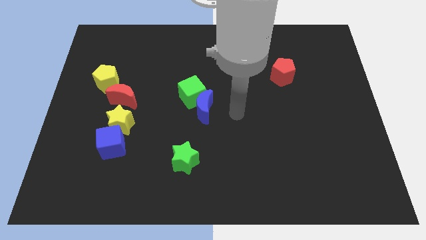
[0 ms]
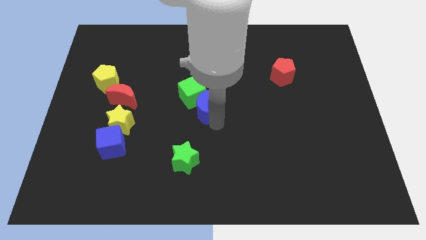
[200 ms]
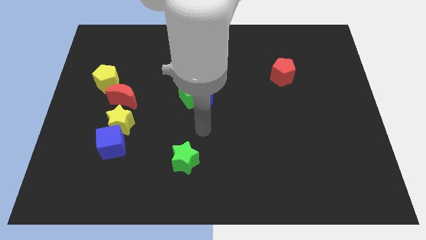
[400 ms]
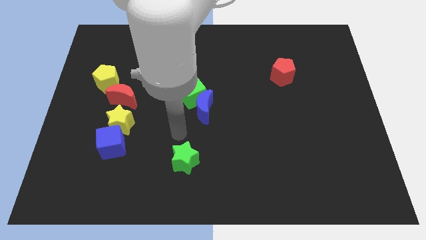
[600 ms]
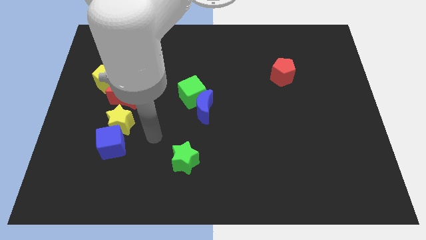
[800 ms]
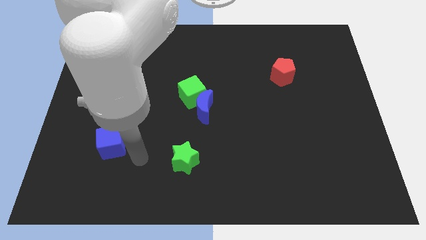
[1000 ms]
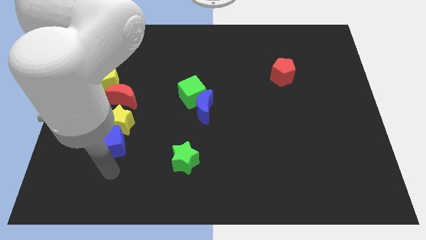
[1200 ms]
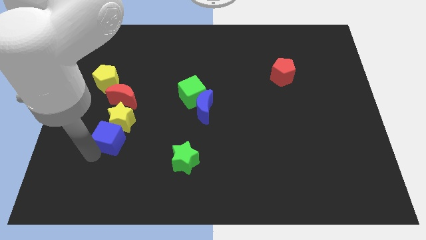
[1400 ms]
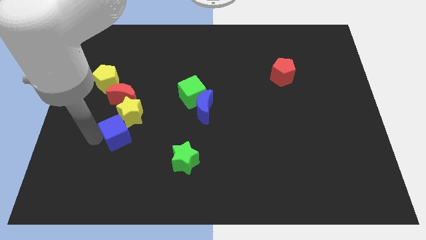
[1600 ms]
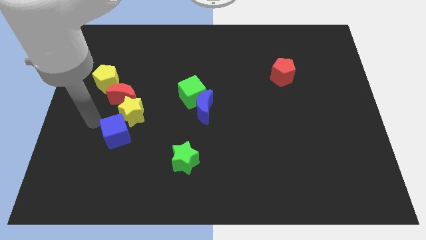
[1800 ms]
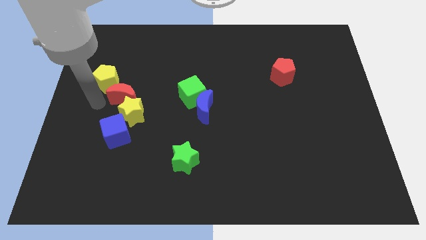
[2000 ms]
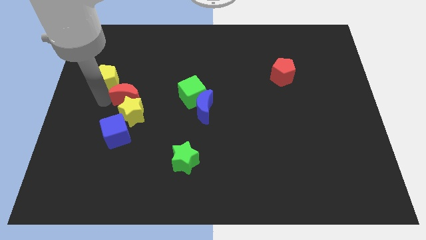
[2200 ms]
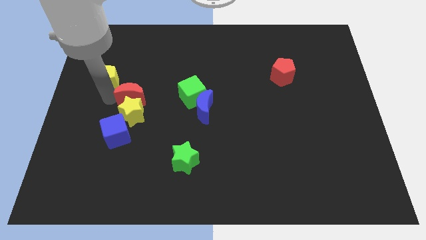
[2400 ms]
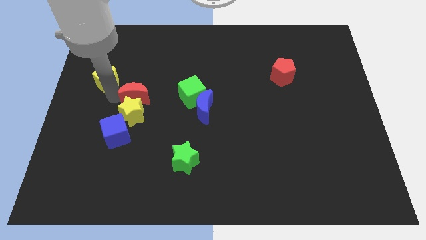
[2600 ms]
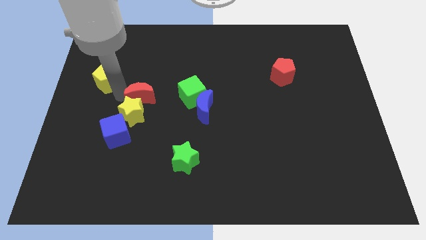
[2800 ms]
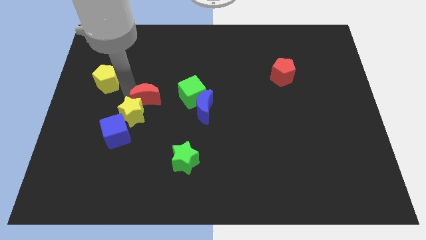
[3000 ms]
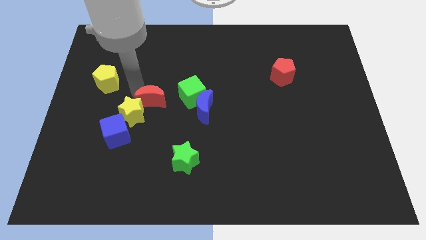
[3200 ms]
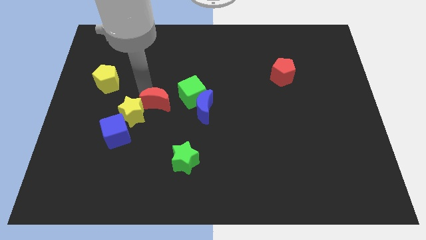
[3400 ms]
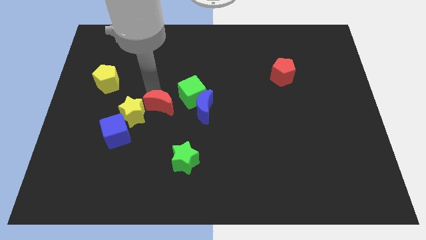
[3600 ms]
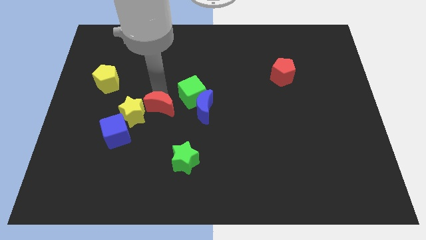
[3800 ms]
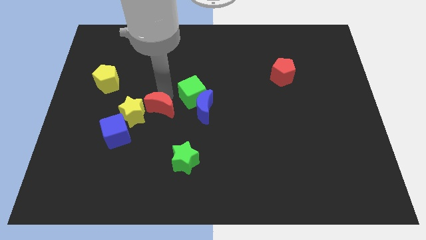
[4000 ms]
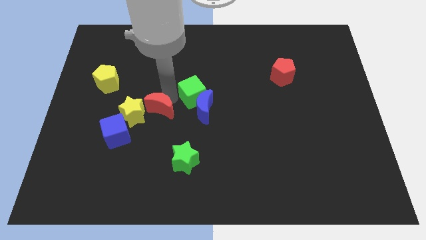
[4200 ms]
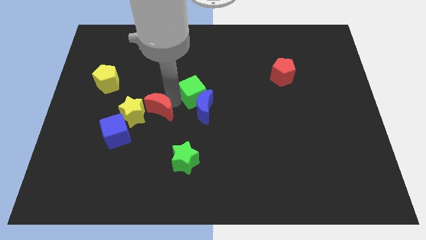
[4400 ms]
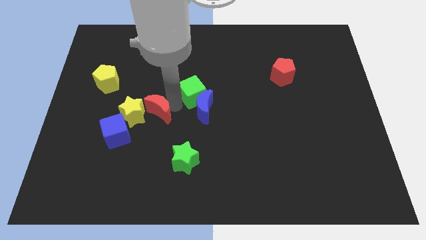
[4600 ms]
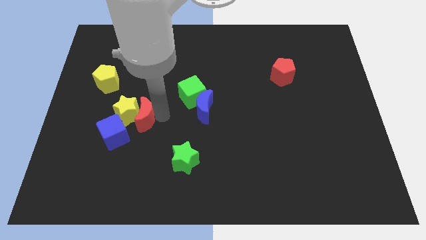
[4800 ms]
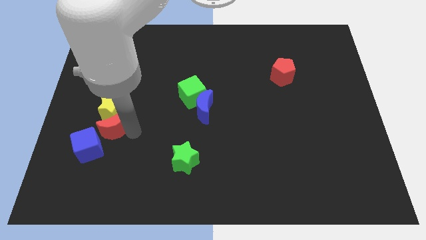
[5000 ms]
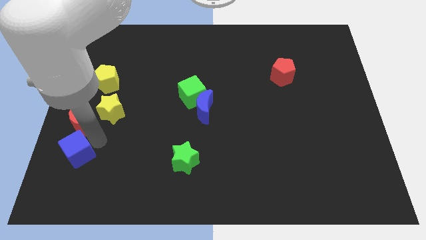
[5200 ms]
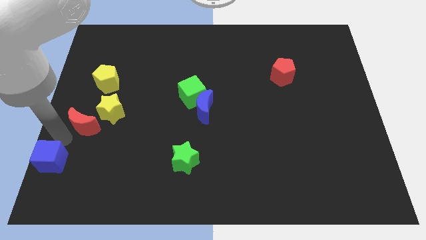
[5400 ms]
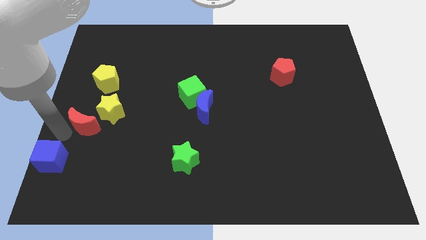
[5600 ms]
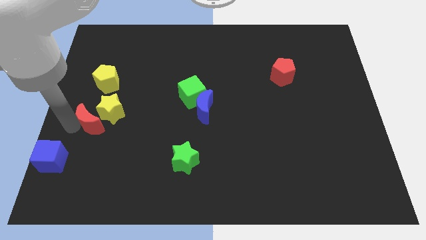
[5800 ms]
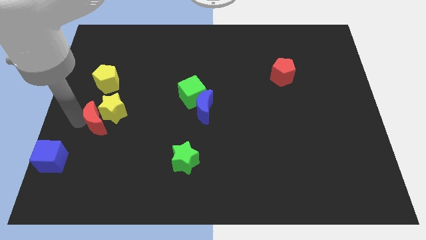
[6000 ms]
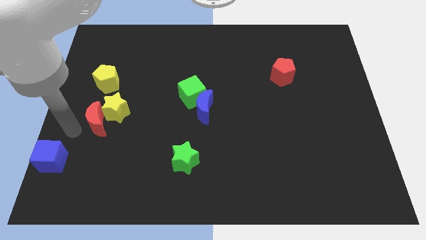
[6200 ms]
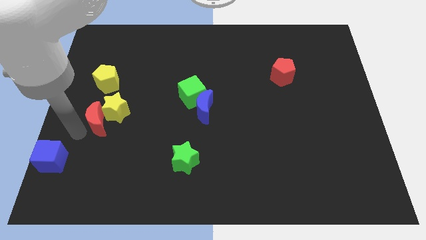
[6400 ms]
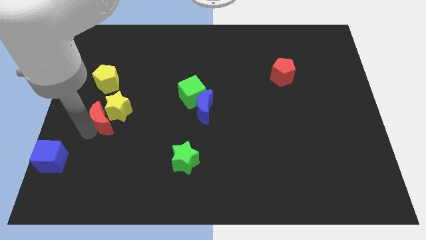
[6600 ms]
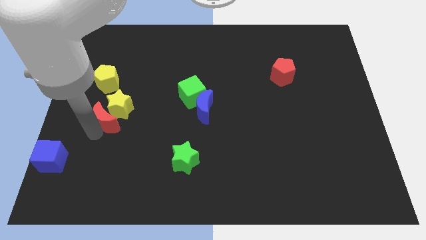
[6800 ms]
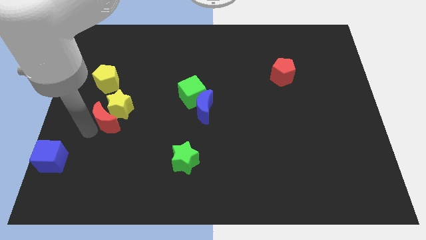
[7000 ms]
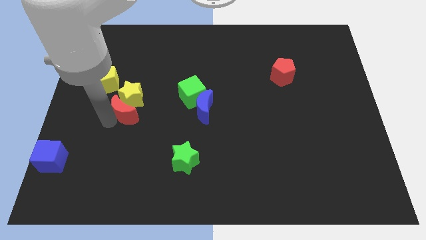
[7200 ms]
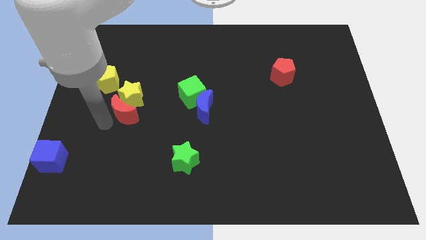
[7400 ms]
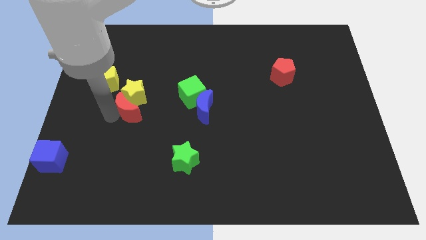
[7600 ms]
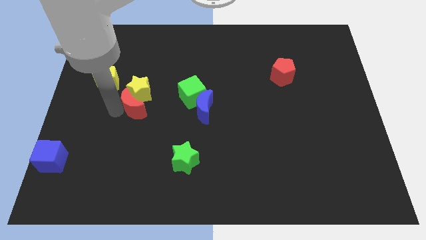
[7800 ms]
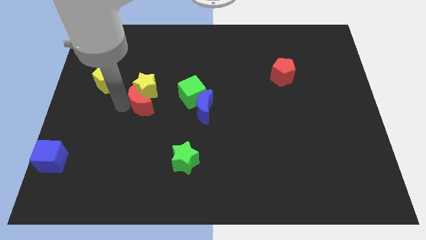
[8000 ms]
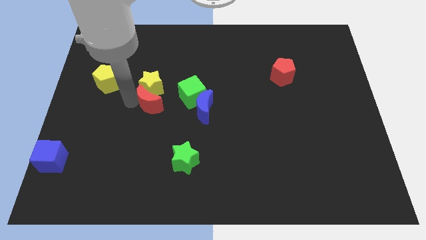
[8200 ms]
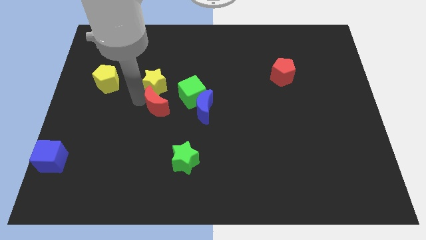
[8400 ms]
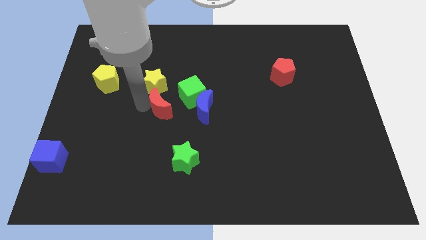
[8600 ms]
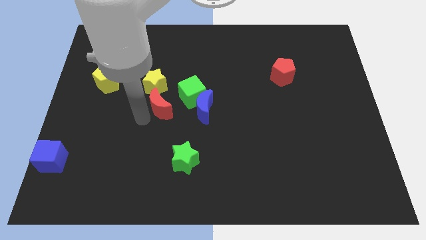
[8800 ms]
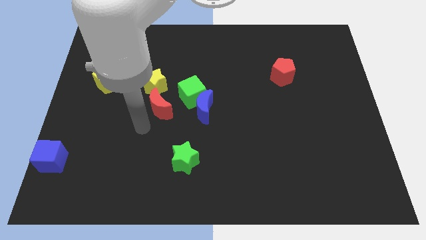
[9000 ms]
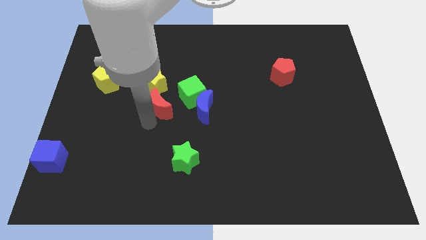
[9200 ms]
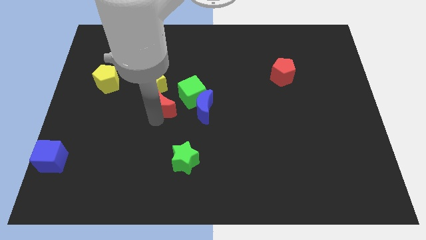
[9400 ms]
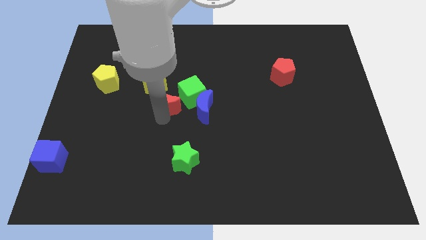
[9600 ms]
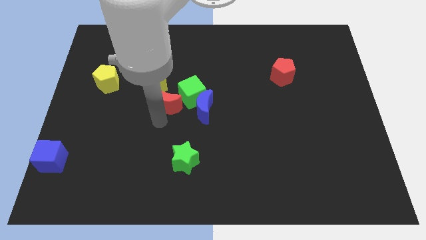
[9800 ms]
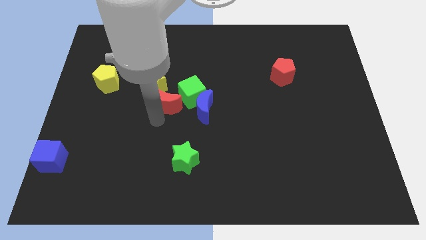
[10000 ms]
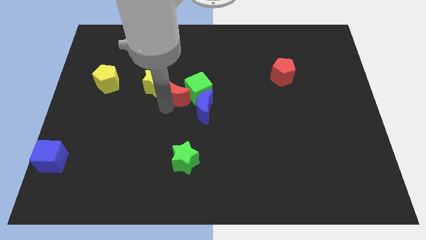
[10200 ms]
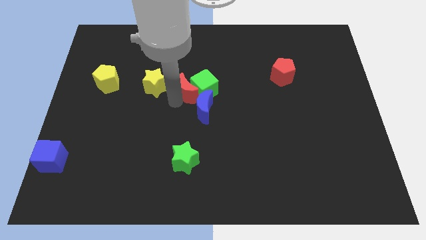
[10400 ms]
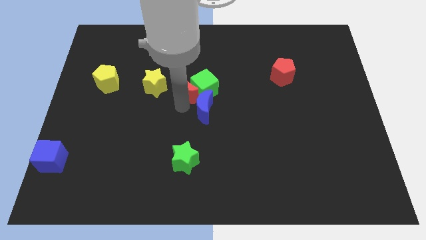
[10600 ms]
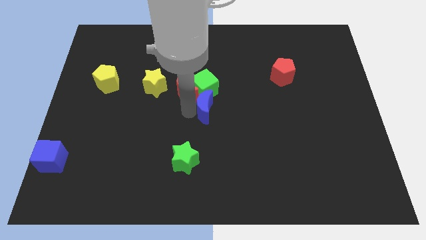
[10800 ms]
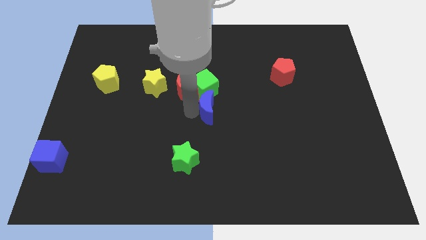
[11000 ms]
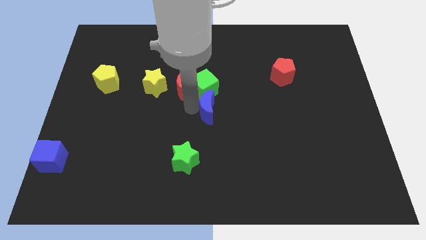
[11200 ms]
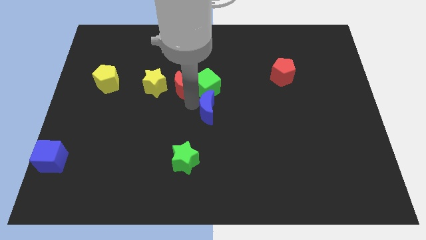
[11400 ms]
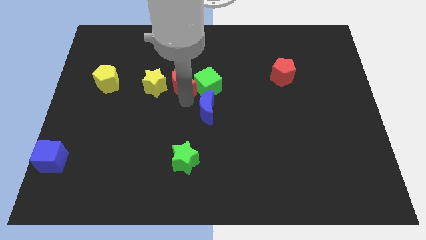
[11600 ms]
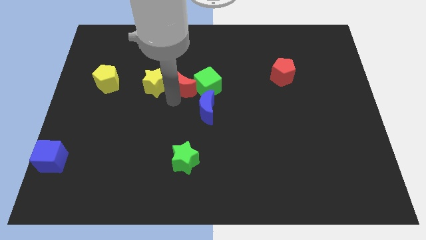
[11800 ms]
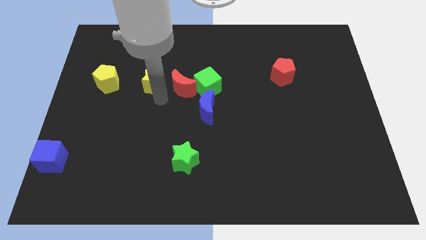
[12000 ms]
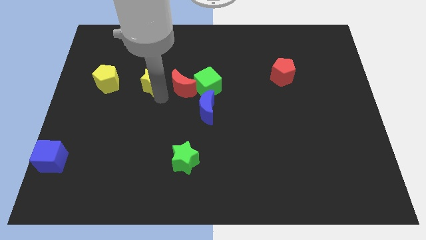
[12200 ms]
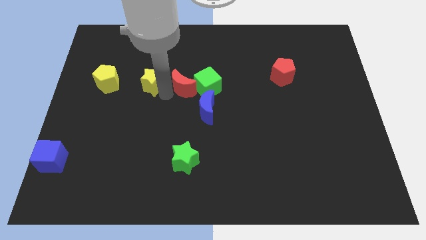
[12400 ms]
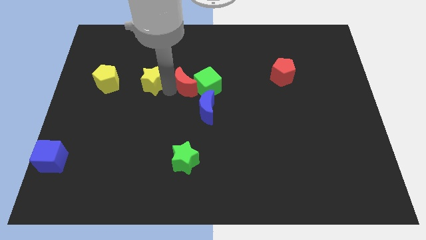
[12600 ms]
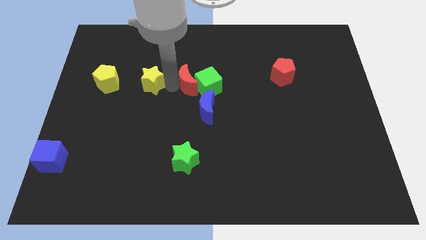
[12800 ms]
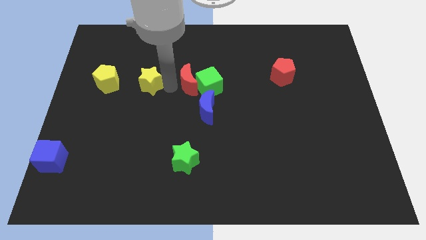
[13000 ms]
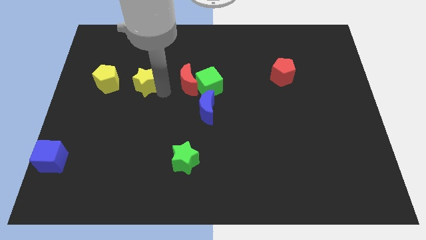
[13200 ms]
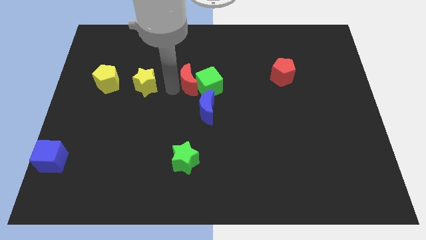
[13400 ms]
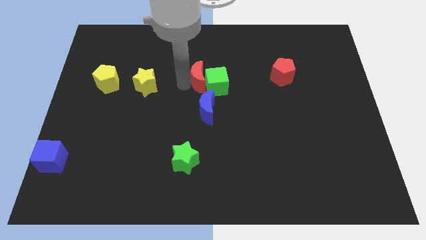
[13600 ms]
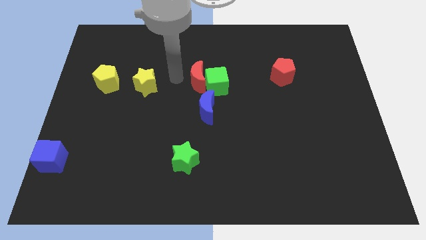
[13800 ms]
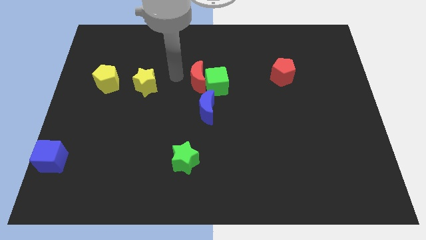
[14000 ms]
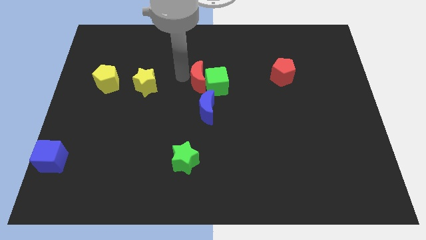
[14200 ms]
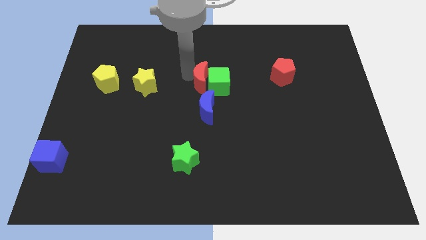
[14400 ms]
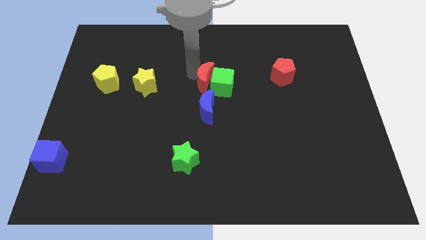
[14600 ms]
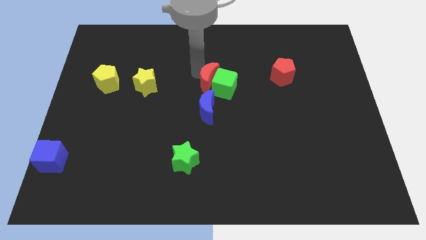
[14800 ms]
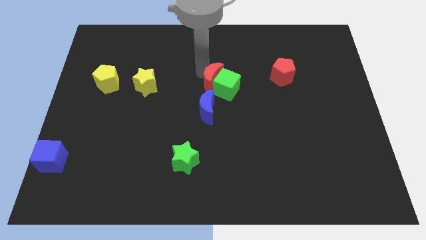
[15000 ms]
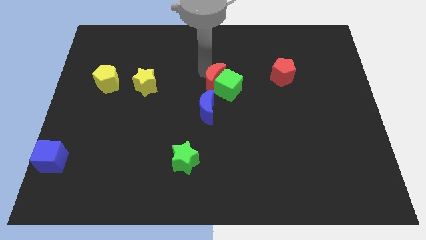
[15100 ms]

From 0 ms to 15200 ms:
move the red moon to the right

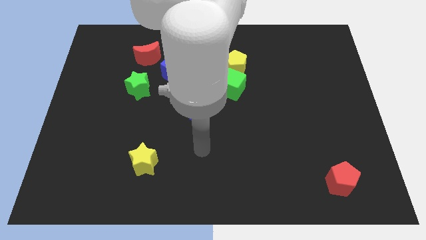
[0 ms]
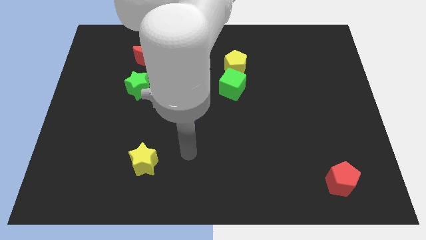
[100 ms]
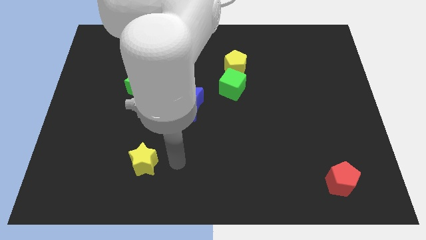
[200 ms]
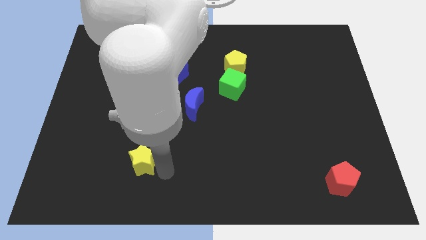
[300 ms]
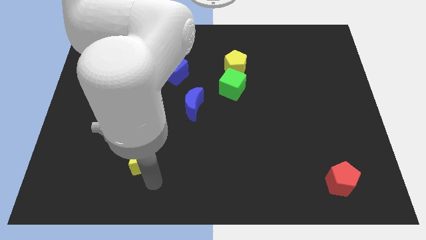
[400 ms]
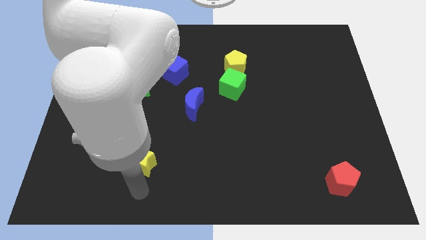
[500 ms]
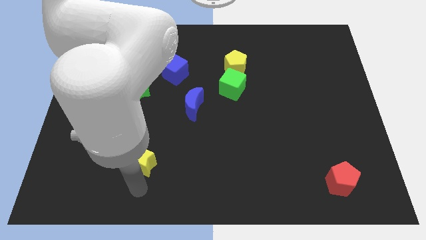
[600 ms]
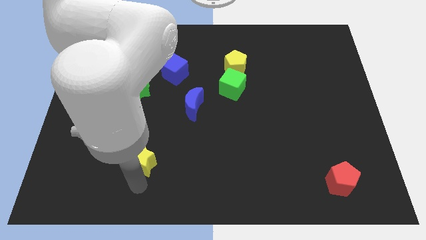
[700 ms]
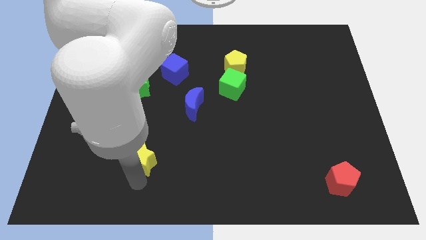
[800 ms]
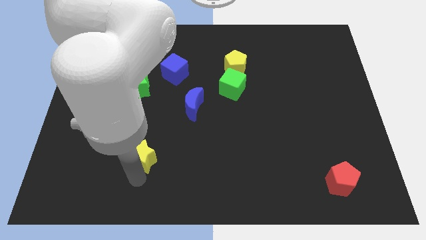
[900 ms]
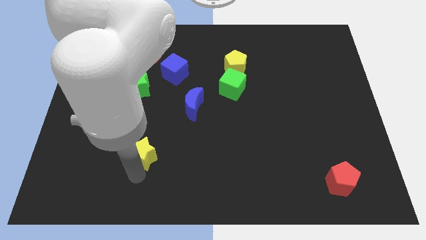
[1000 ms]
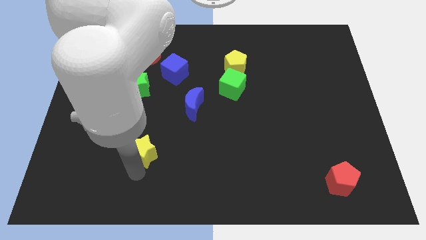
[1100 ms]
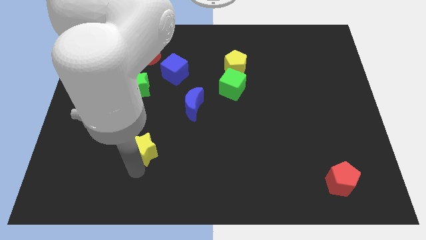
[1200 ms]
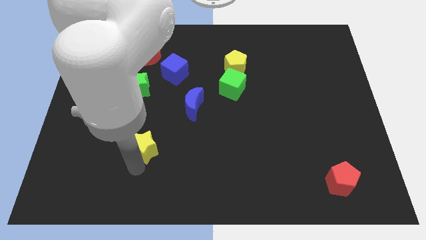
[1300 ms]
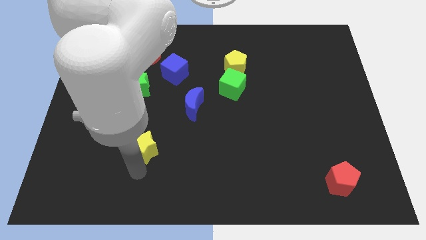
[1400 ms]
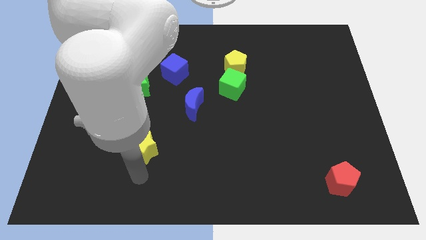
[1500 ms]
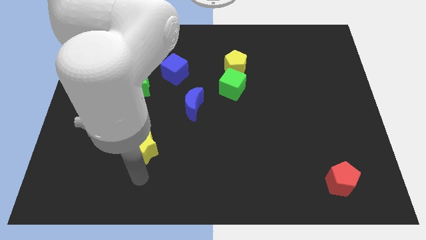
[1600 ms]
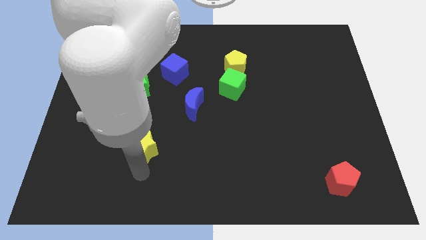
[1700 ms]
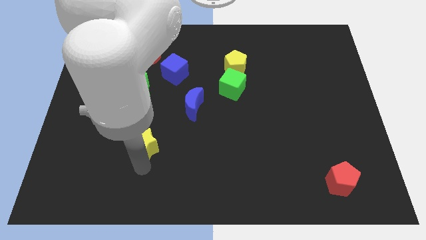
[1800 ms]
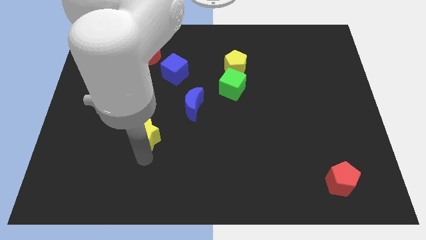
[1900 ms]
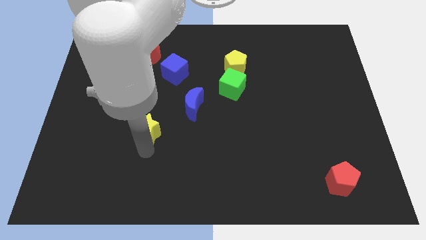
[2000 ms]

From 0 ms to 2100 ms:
push the yellow star a little upwards
